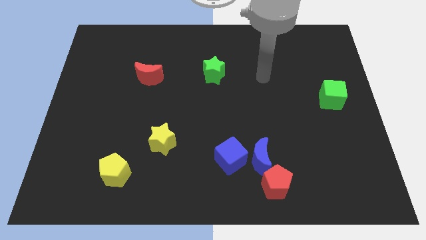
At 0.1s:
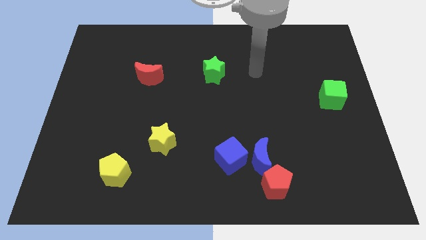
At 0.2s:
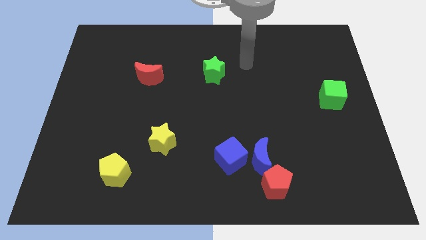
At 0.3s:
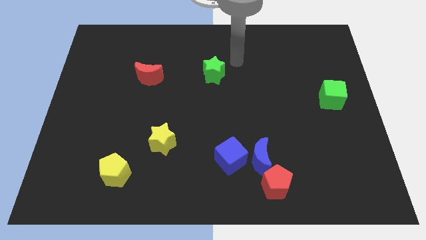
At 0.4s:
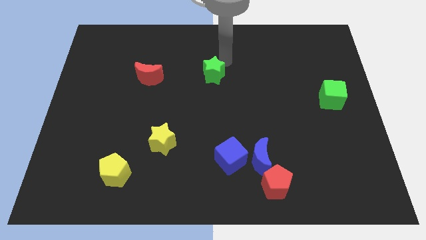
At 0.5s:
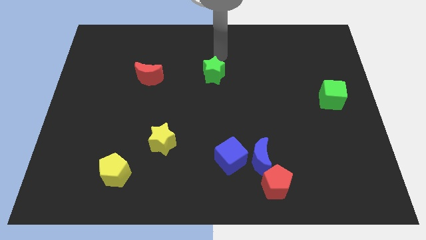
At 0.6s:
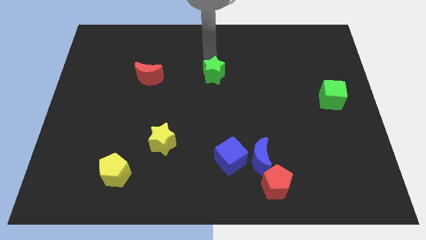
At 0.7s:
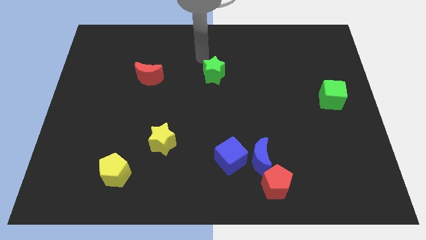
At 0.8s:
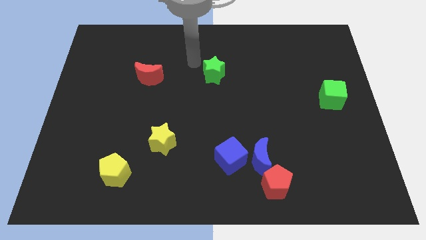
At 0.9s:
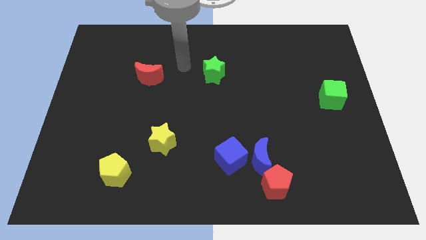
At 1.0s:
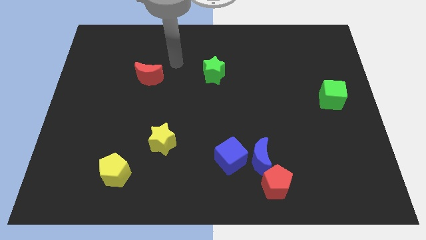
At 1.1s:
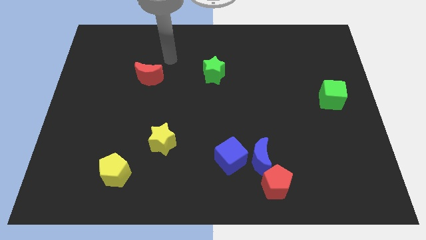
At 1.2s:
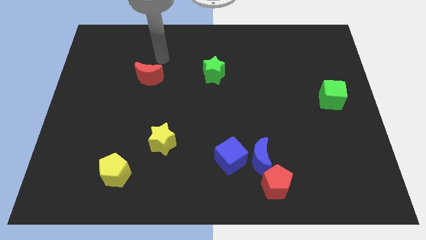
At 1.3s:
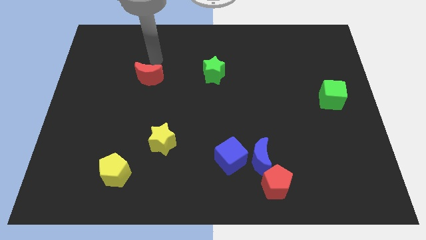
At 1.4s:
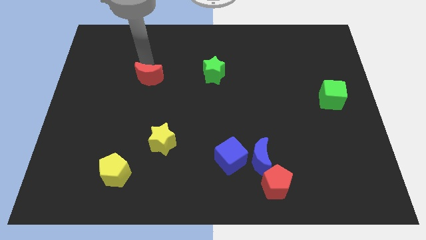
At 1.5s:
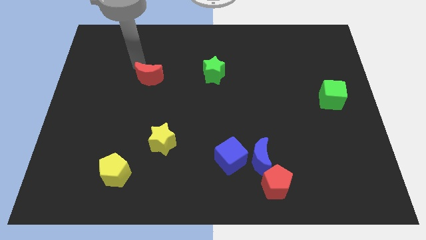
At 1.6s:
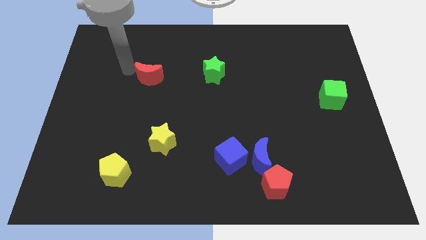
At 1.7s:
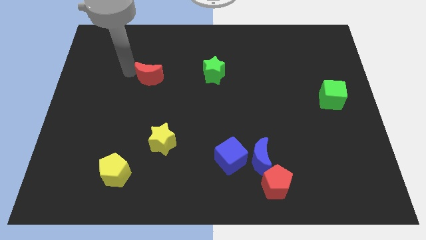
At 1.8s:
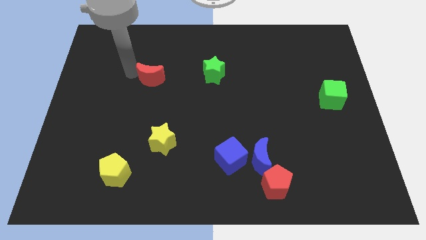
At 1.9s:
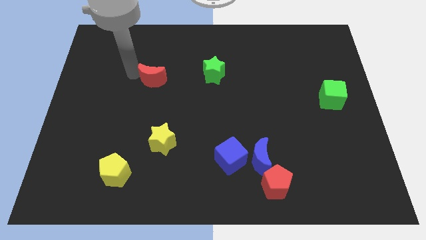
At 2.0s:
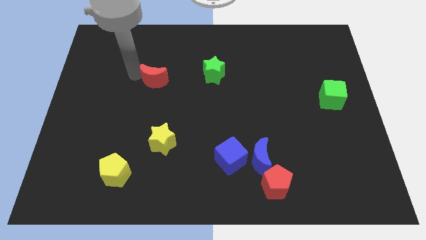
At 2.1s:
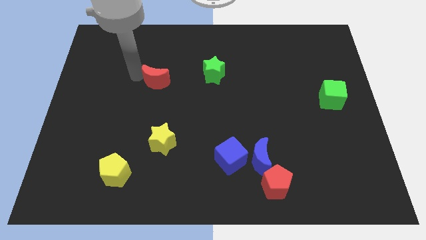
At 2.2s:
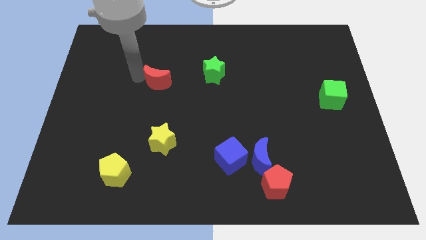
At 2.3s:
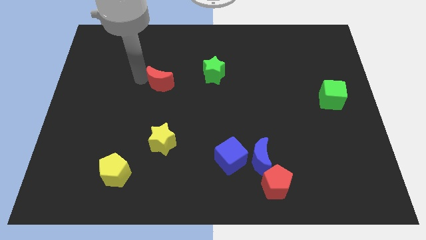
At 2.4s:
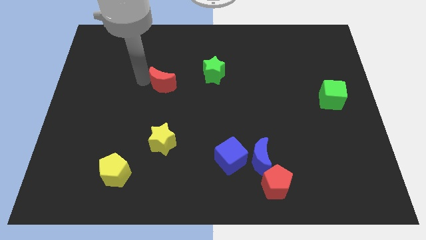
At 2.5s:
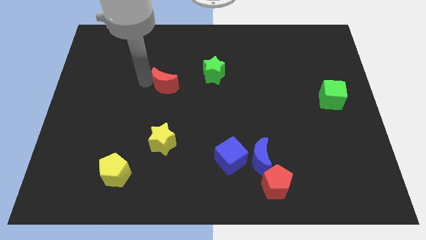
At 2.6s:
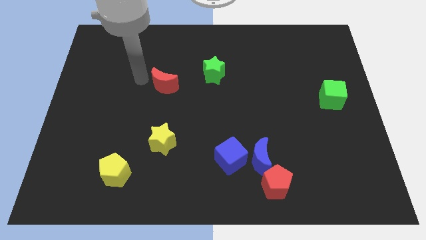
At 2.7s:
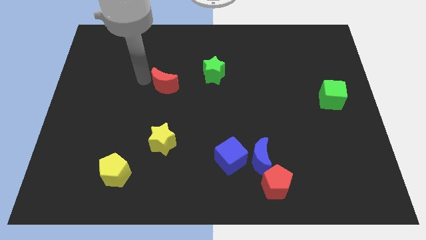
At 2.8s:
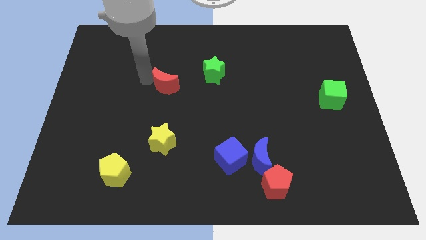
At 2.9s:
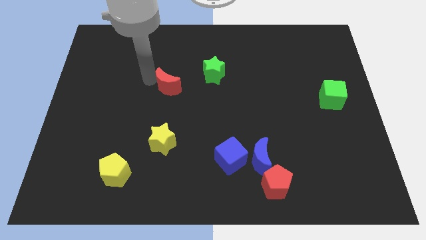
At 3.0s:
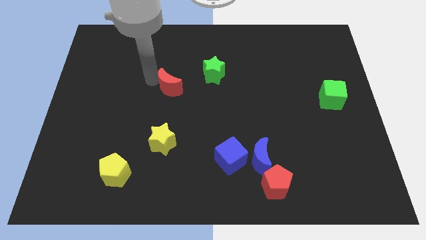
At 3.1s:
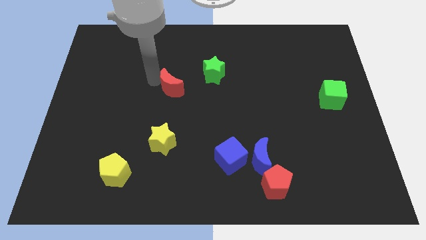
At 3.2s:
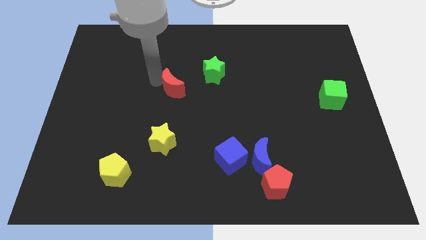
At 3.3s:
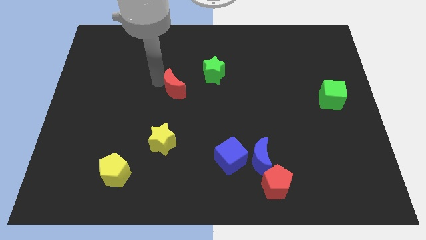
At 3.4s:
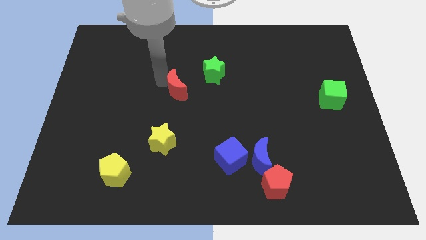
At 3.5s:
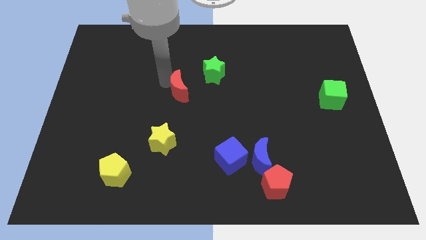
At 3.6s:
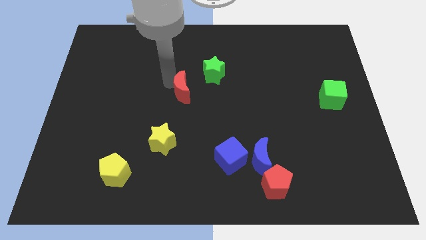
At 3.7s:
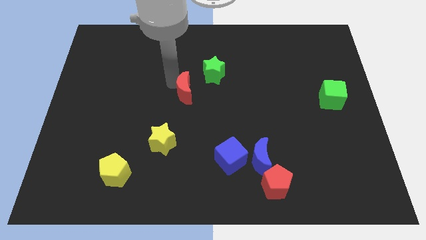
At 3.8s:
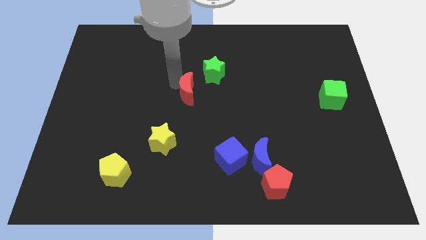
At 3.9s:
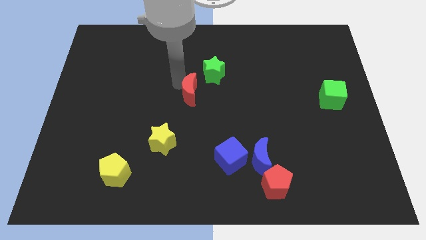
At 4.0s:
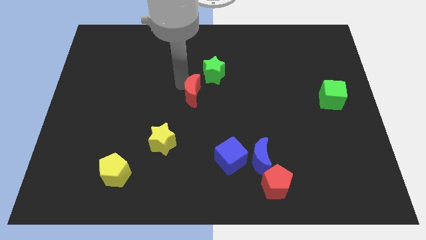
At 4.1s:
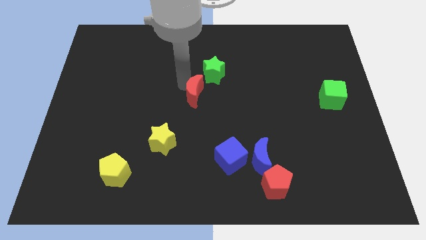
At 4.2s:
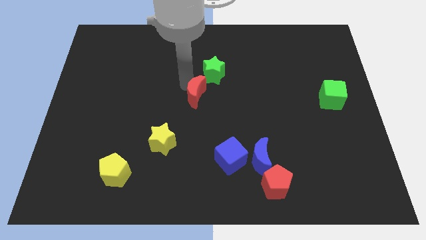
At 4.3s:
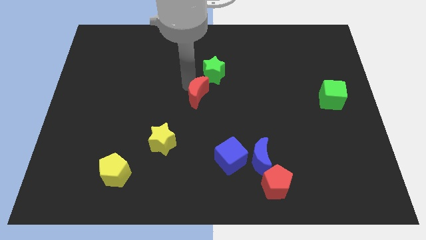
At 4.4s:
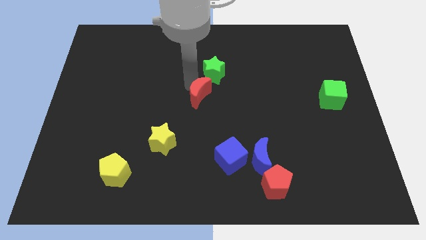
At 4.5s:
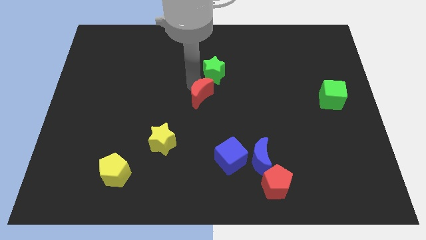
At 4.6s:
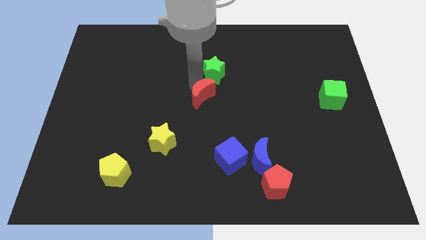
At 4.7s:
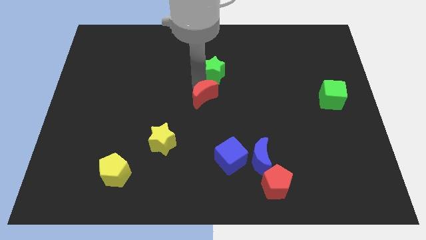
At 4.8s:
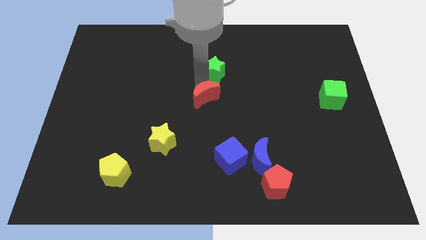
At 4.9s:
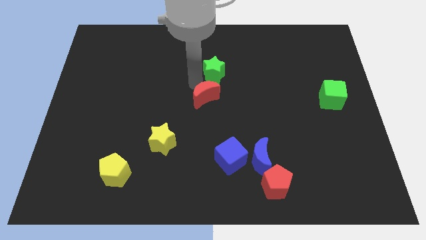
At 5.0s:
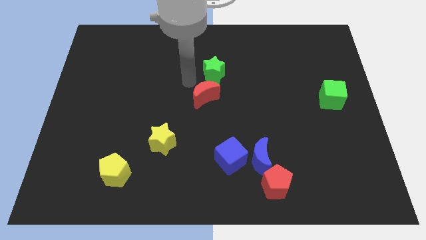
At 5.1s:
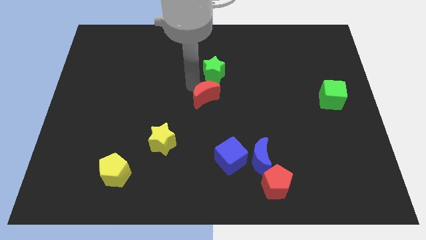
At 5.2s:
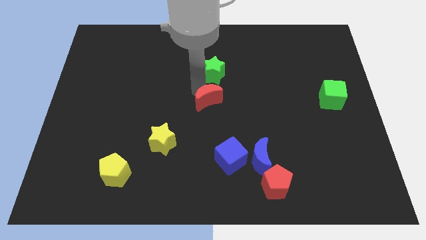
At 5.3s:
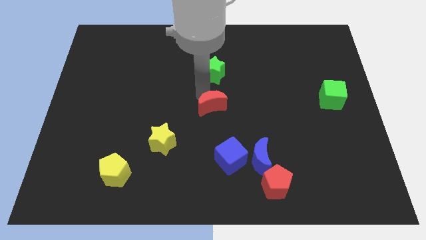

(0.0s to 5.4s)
put the red moon to the top of the blue cube

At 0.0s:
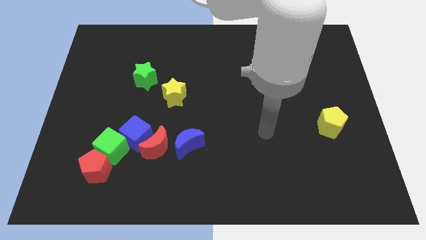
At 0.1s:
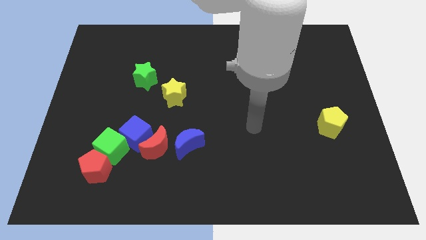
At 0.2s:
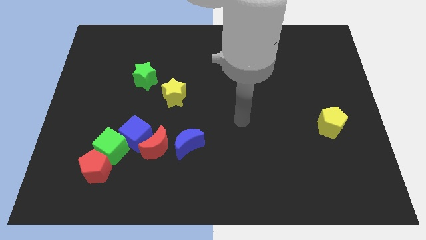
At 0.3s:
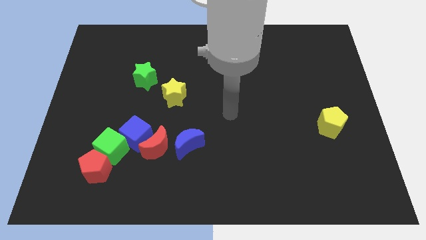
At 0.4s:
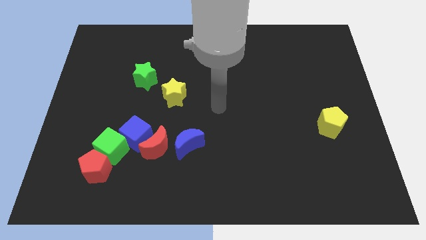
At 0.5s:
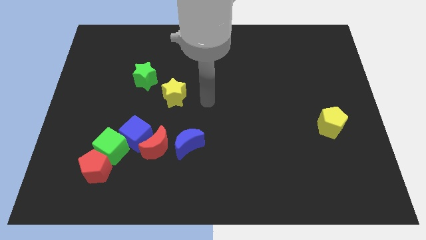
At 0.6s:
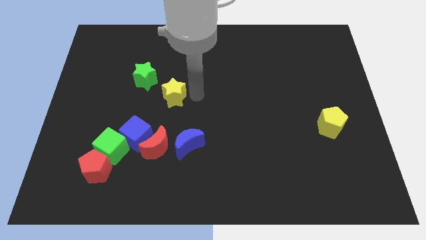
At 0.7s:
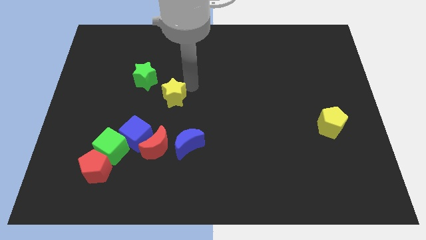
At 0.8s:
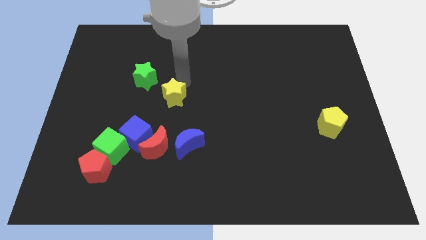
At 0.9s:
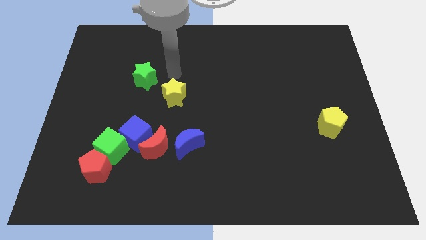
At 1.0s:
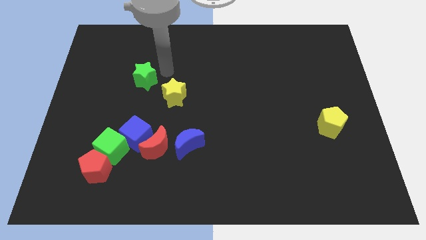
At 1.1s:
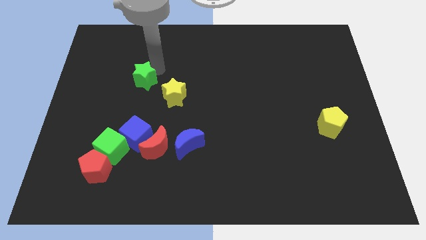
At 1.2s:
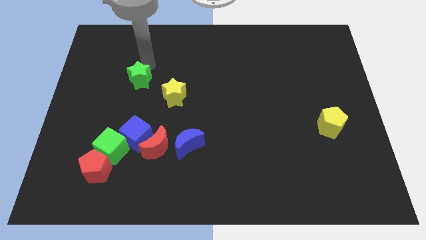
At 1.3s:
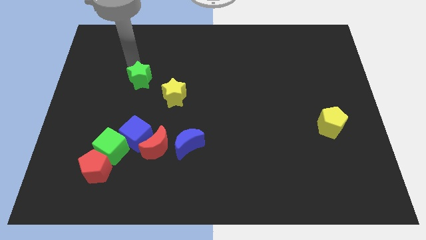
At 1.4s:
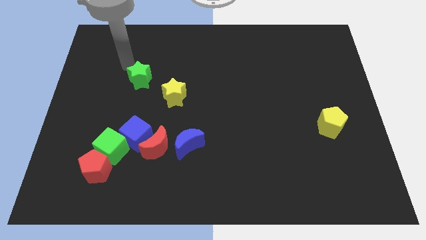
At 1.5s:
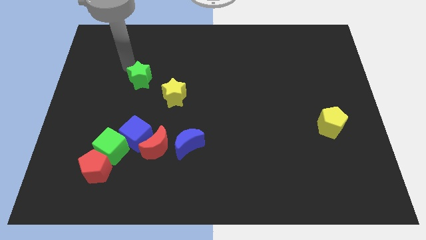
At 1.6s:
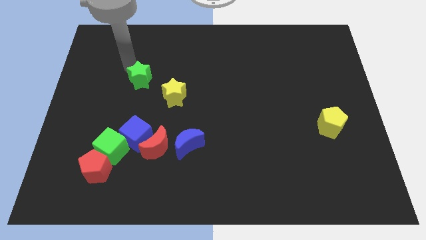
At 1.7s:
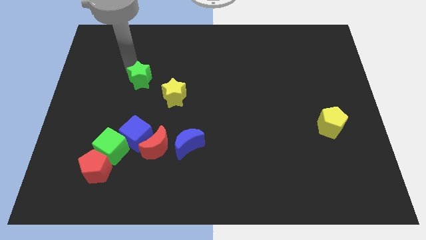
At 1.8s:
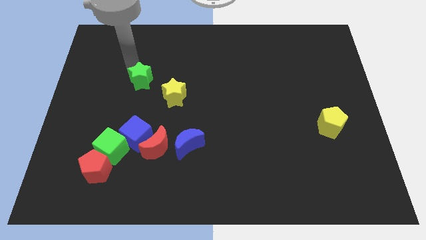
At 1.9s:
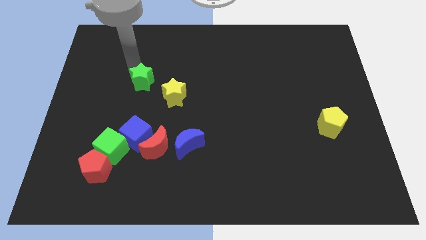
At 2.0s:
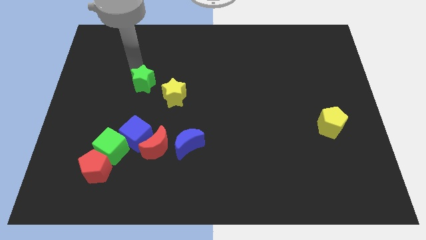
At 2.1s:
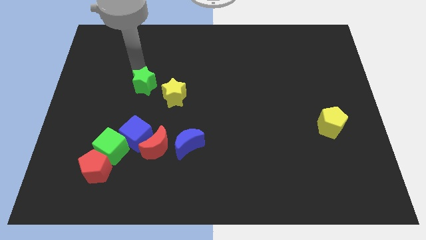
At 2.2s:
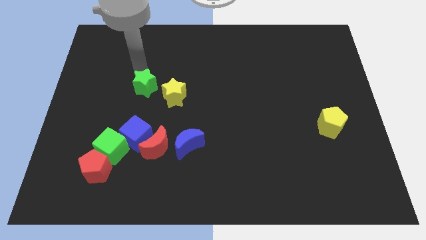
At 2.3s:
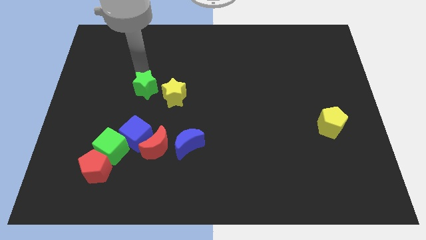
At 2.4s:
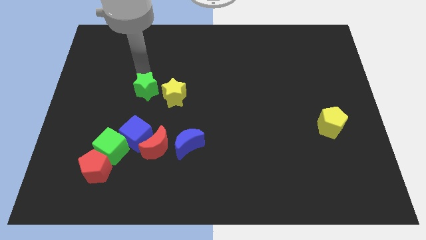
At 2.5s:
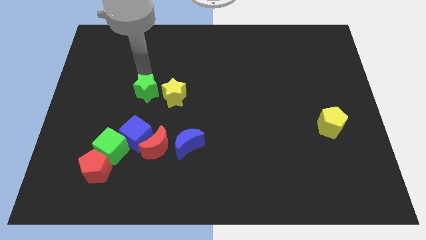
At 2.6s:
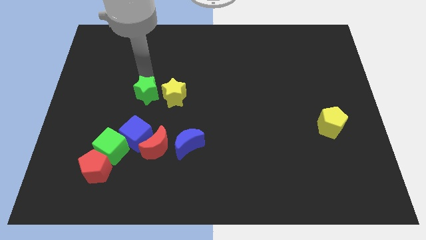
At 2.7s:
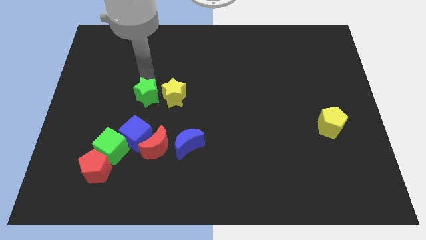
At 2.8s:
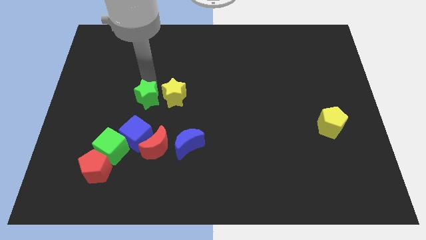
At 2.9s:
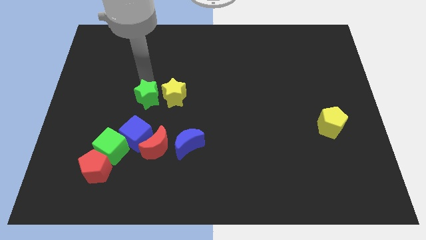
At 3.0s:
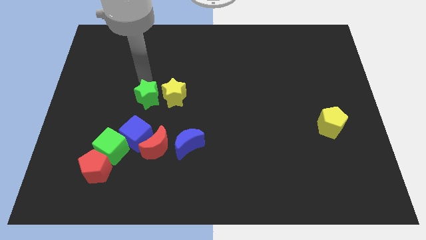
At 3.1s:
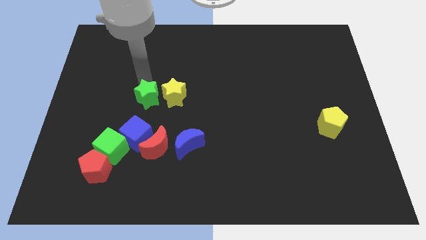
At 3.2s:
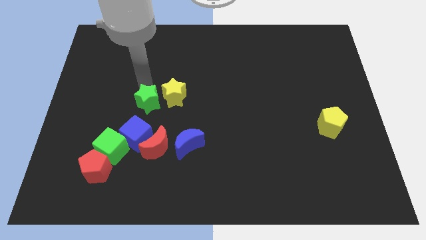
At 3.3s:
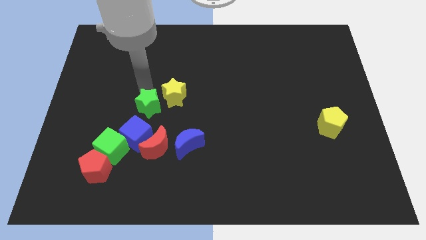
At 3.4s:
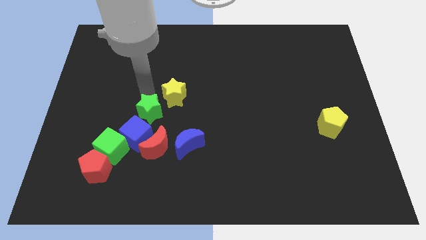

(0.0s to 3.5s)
put the green star to the top right of the green cube
